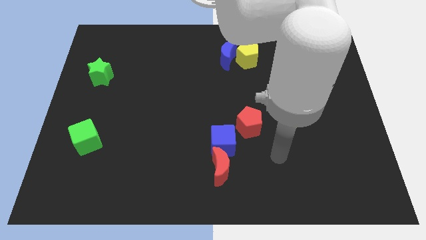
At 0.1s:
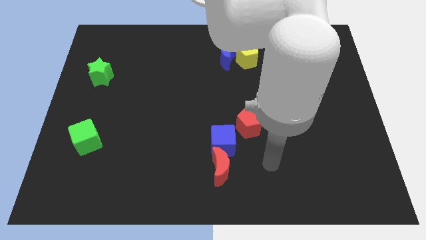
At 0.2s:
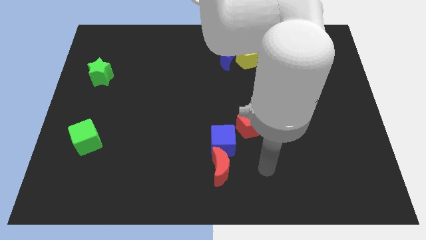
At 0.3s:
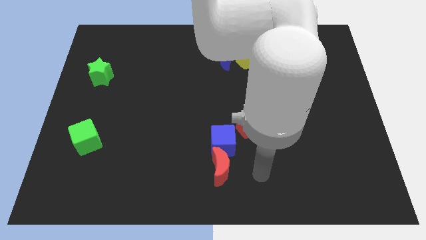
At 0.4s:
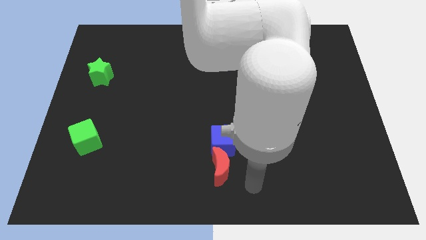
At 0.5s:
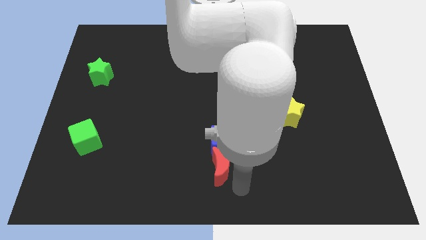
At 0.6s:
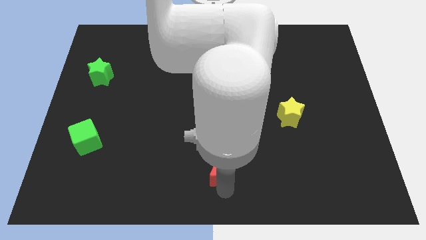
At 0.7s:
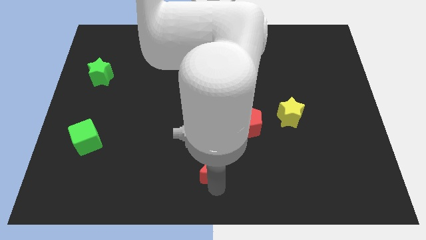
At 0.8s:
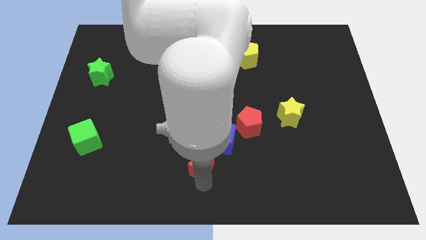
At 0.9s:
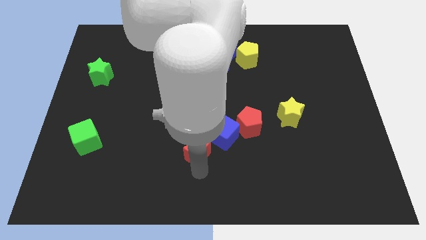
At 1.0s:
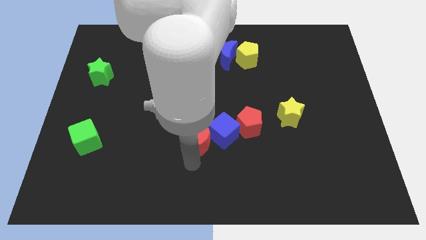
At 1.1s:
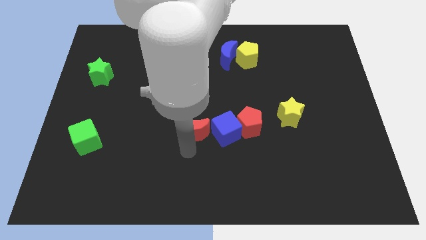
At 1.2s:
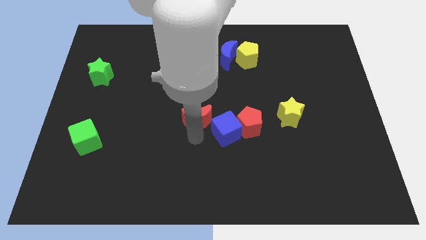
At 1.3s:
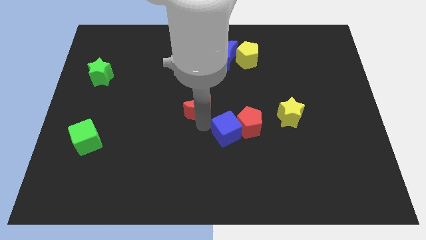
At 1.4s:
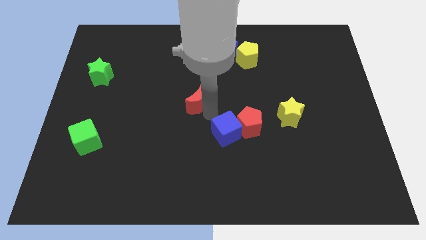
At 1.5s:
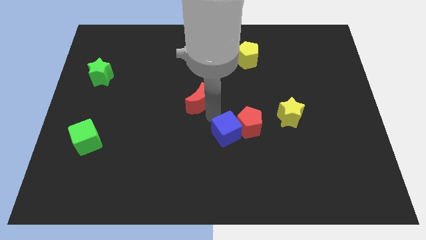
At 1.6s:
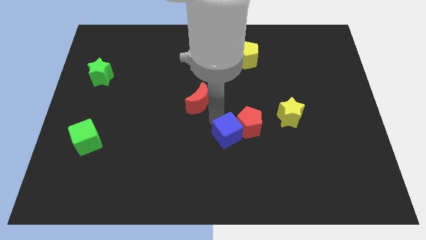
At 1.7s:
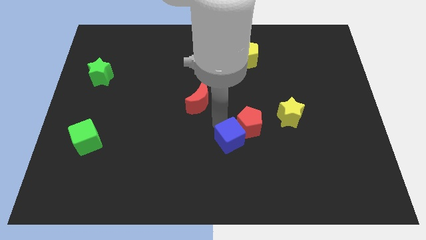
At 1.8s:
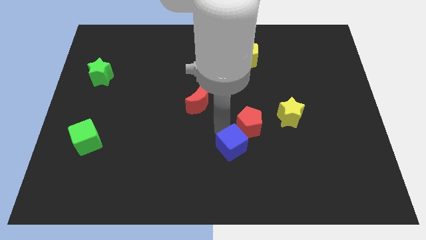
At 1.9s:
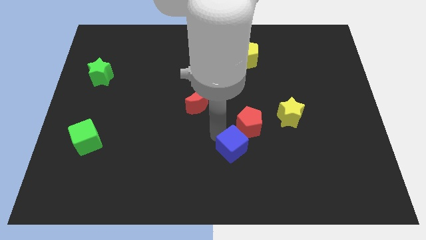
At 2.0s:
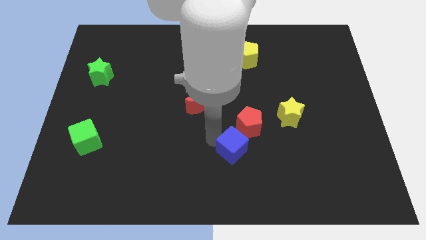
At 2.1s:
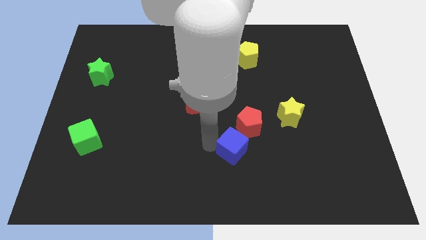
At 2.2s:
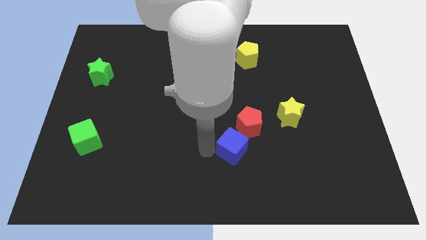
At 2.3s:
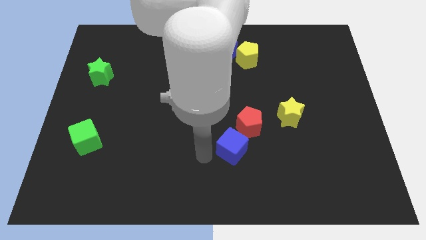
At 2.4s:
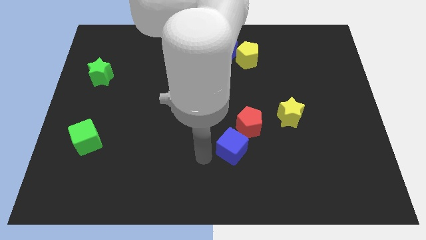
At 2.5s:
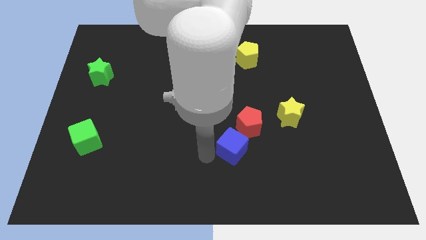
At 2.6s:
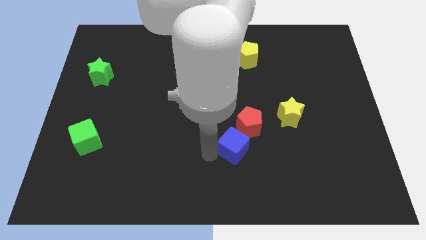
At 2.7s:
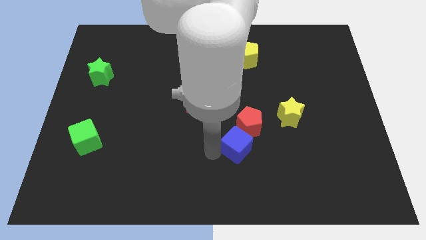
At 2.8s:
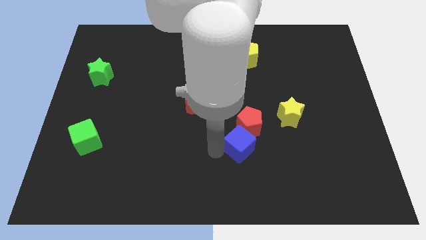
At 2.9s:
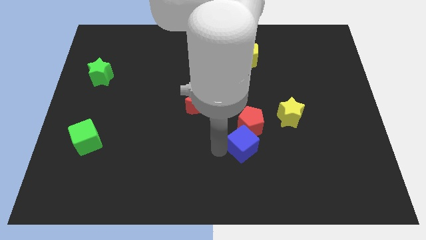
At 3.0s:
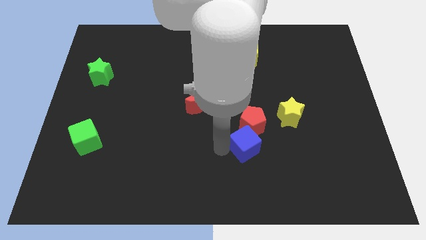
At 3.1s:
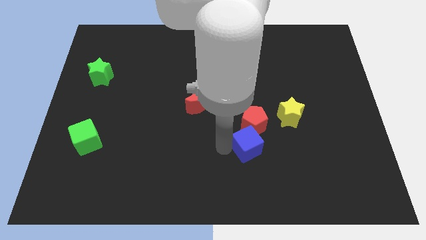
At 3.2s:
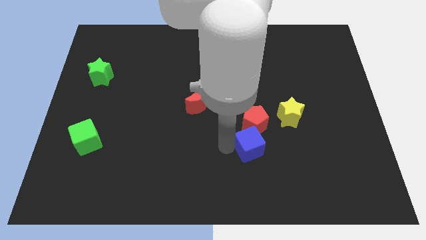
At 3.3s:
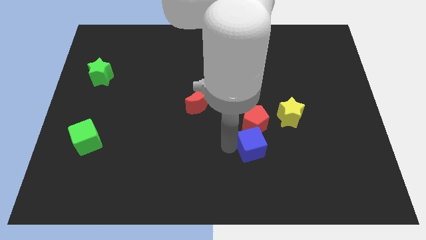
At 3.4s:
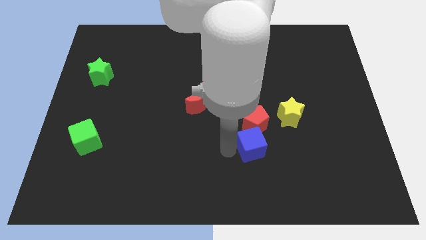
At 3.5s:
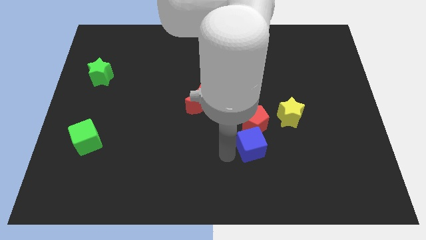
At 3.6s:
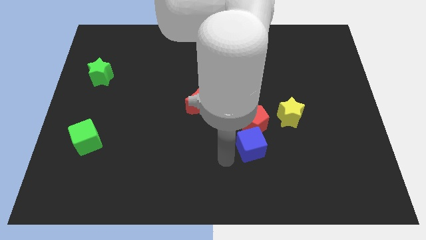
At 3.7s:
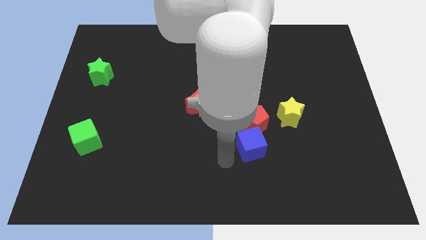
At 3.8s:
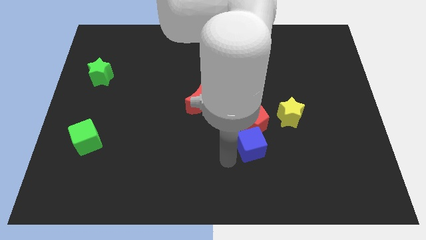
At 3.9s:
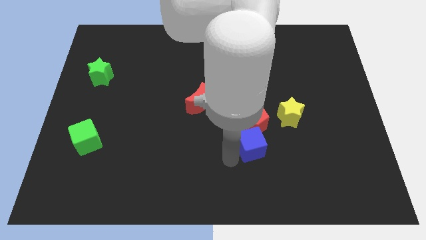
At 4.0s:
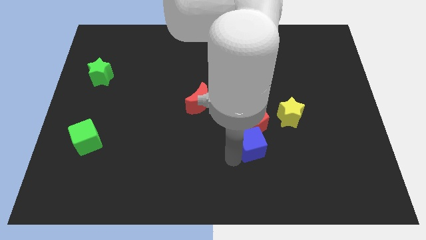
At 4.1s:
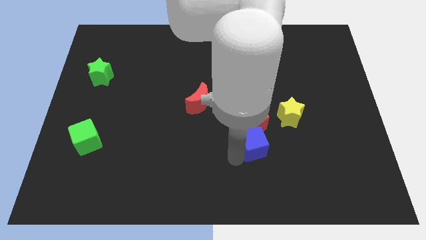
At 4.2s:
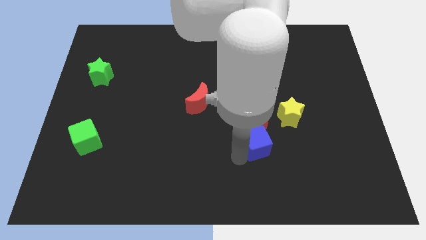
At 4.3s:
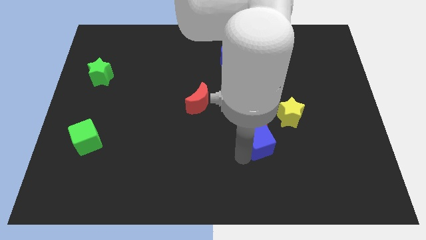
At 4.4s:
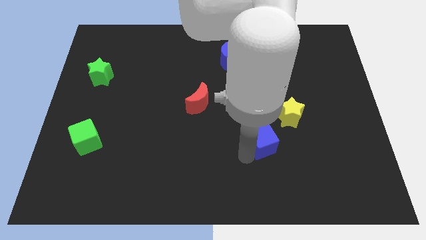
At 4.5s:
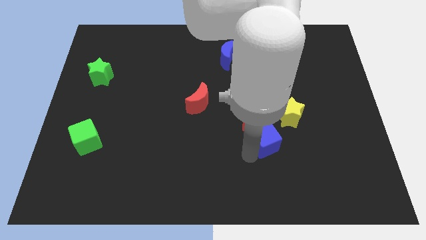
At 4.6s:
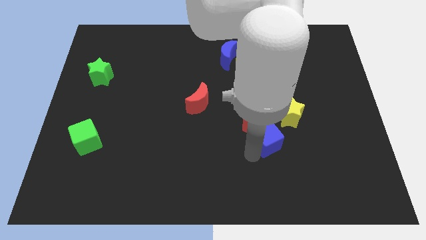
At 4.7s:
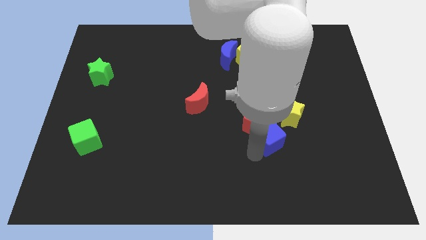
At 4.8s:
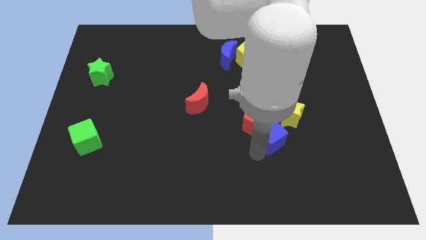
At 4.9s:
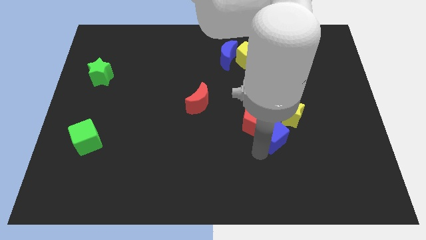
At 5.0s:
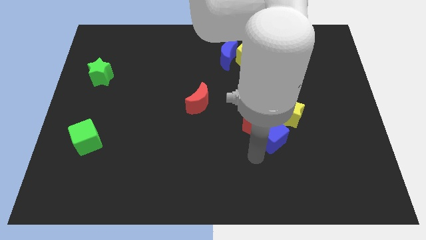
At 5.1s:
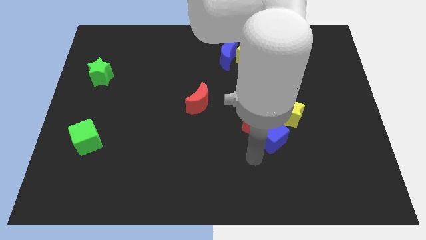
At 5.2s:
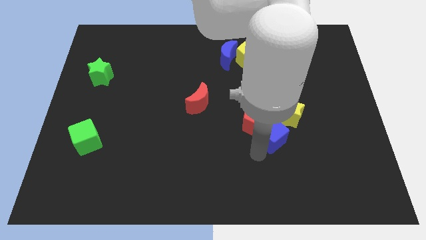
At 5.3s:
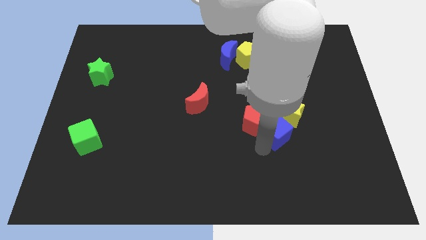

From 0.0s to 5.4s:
push the blue cube close to the yellow star

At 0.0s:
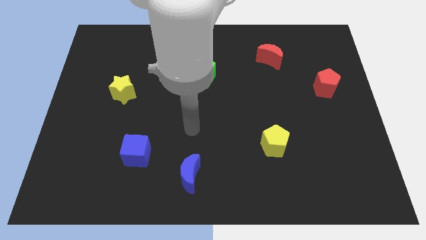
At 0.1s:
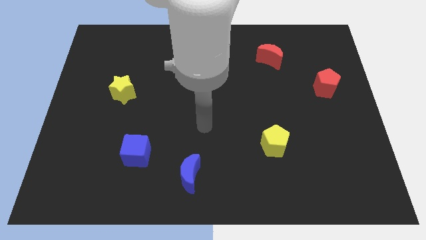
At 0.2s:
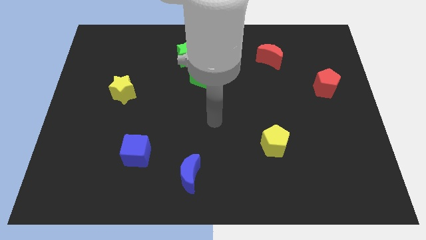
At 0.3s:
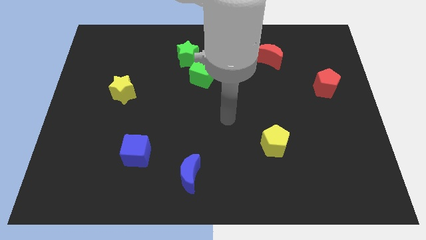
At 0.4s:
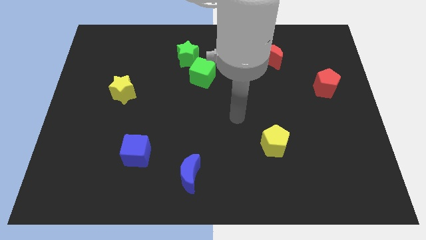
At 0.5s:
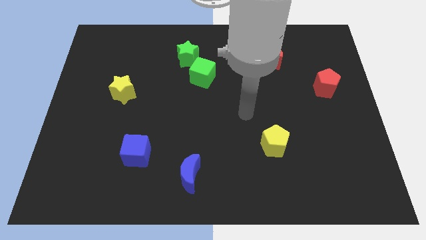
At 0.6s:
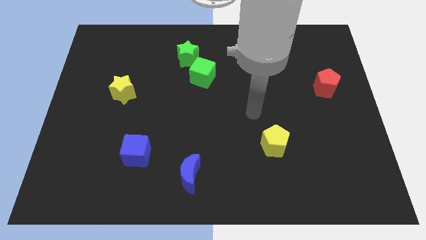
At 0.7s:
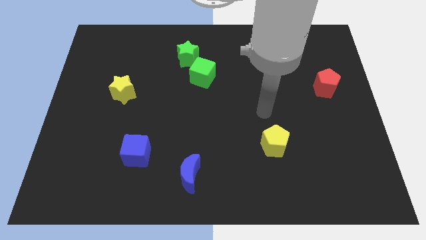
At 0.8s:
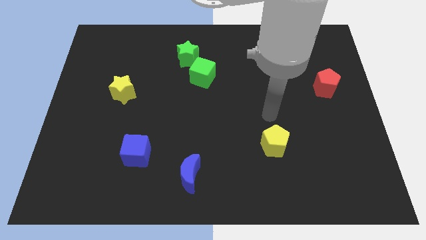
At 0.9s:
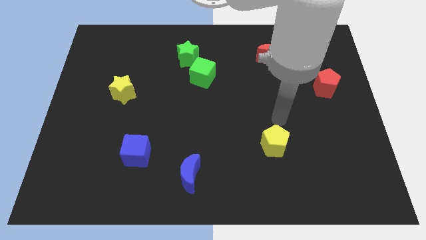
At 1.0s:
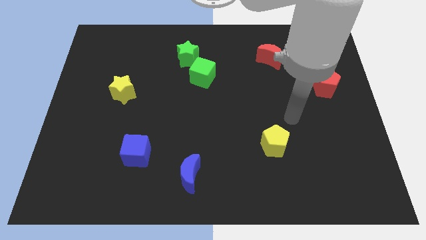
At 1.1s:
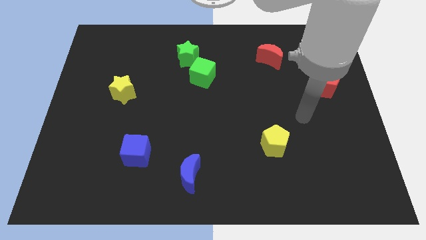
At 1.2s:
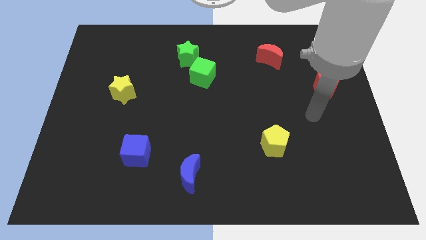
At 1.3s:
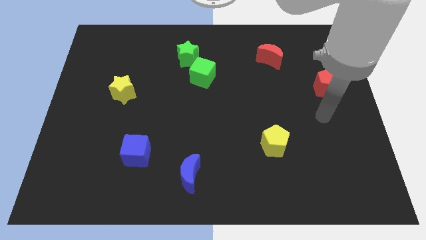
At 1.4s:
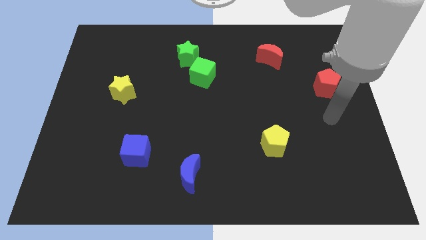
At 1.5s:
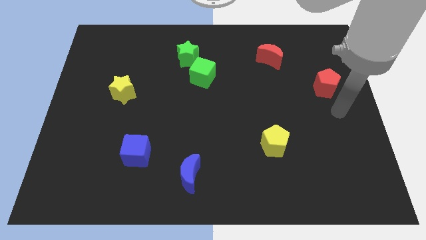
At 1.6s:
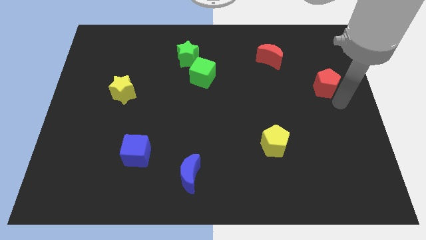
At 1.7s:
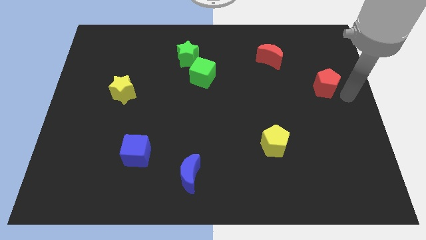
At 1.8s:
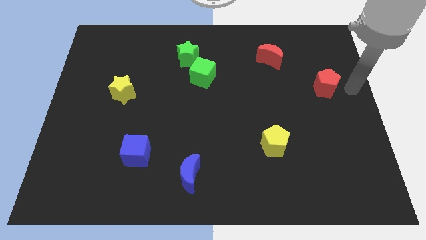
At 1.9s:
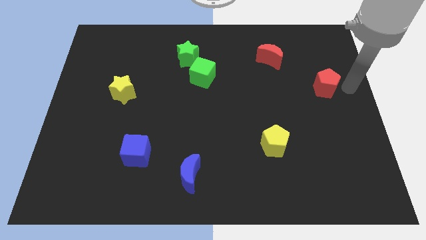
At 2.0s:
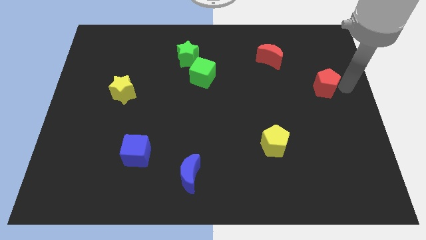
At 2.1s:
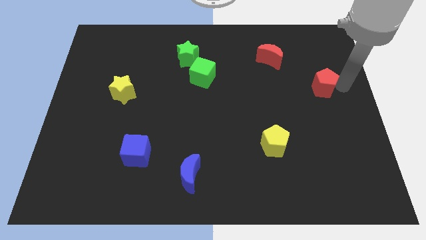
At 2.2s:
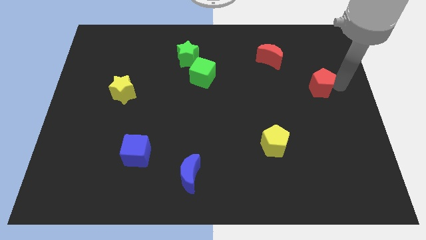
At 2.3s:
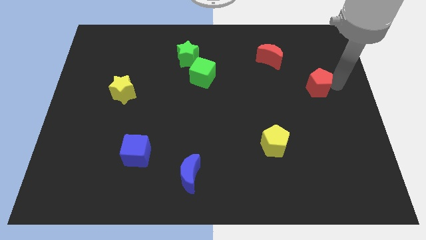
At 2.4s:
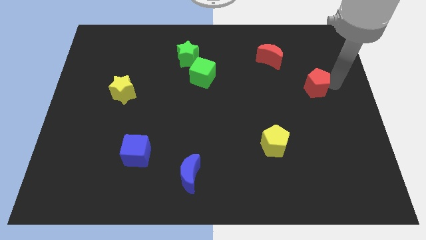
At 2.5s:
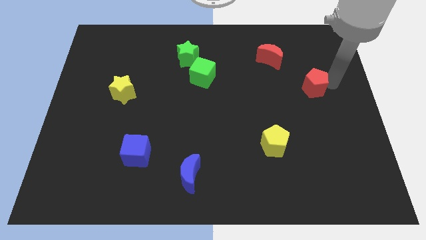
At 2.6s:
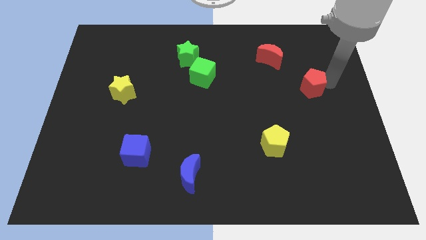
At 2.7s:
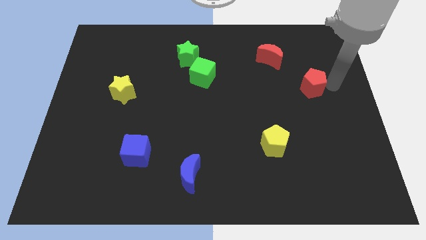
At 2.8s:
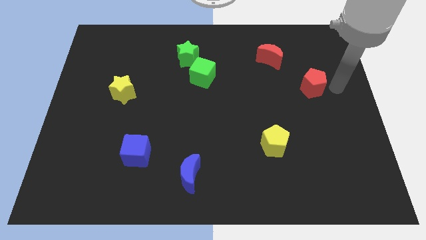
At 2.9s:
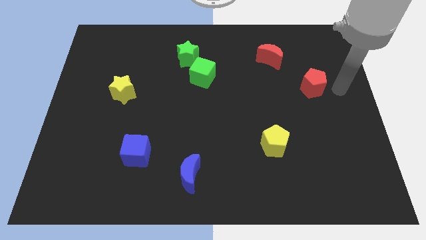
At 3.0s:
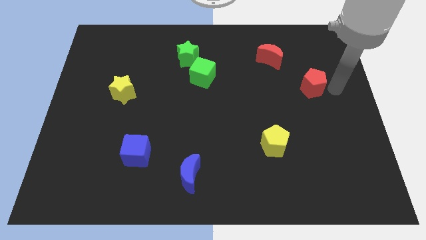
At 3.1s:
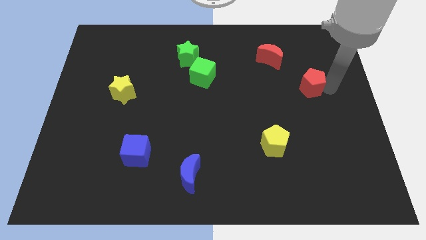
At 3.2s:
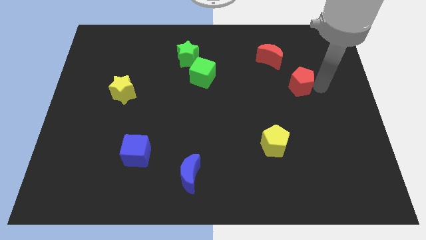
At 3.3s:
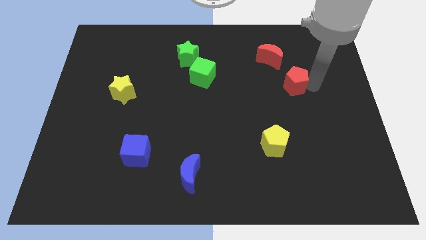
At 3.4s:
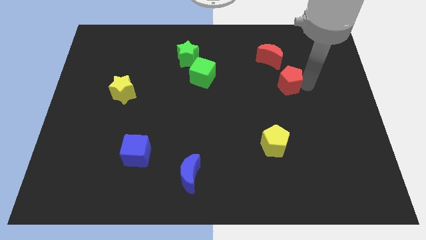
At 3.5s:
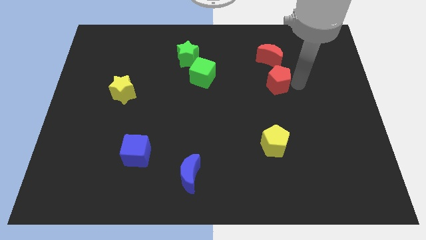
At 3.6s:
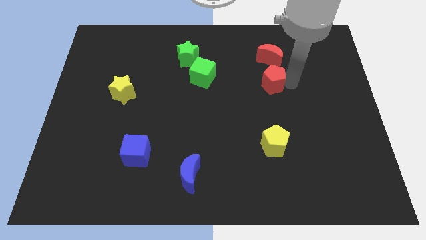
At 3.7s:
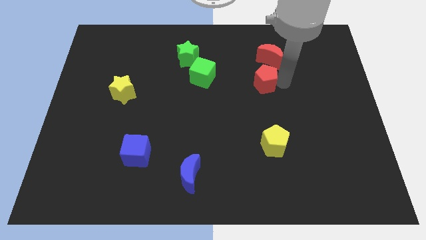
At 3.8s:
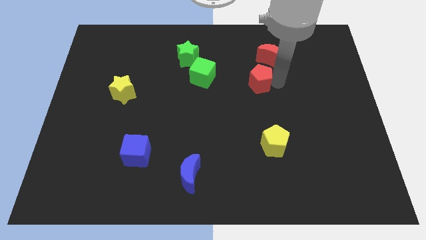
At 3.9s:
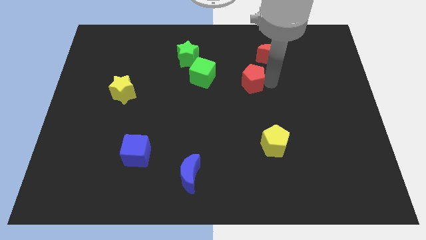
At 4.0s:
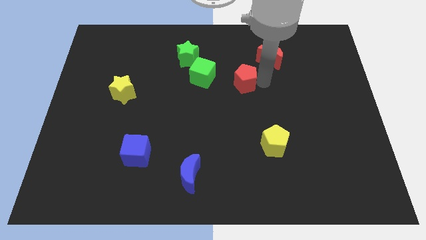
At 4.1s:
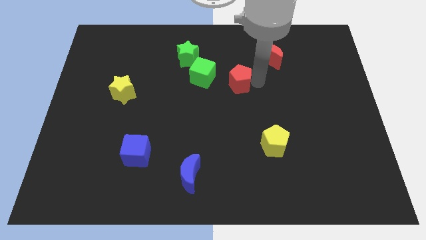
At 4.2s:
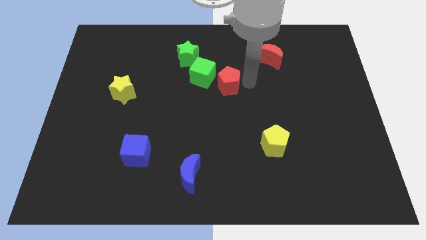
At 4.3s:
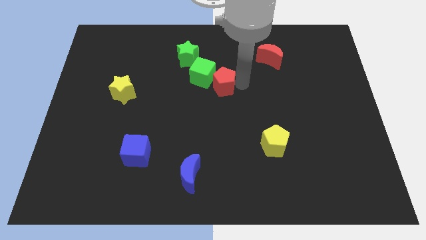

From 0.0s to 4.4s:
push the red pentagon towards the green cube
